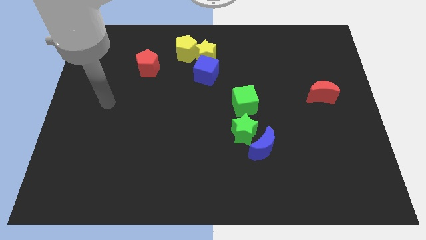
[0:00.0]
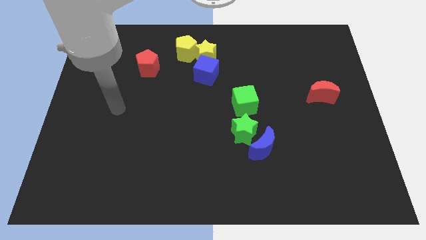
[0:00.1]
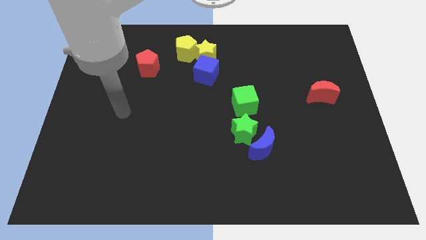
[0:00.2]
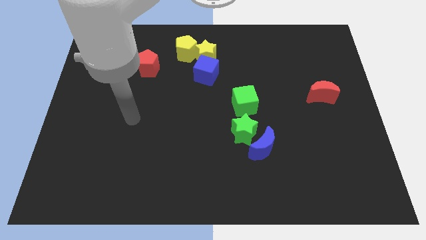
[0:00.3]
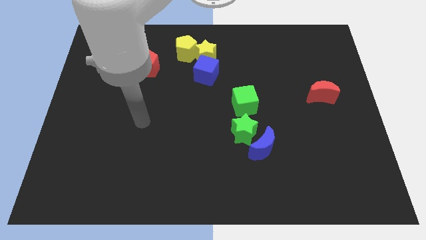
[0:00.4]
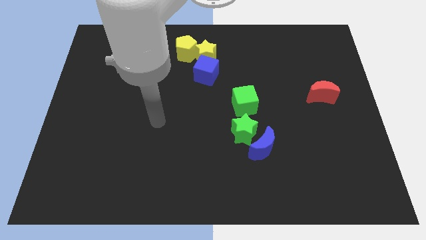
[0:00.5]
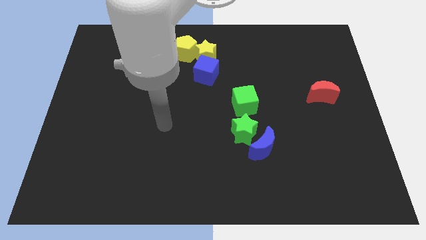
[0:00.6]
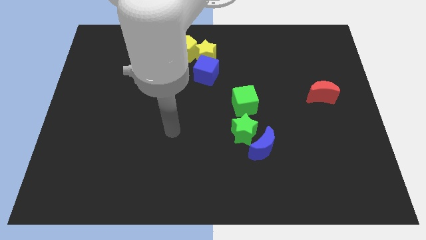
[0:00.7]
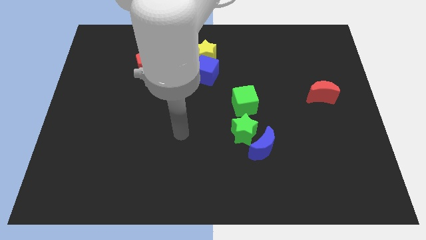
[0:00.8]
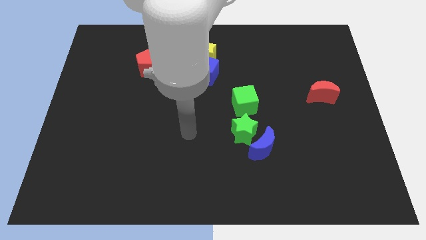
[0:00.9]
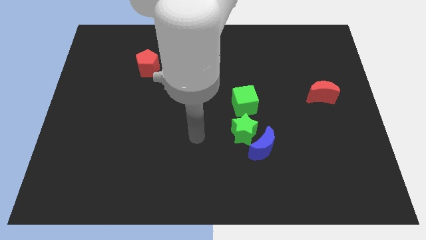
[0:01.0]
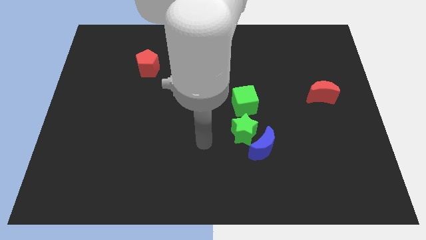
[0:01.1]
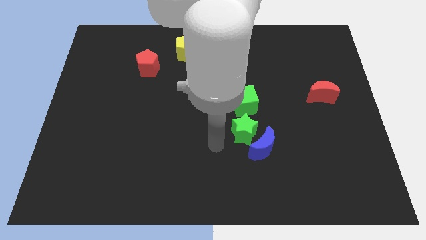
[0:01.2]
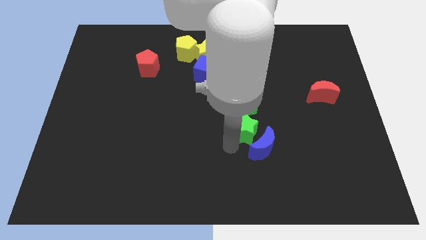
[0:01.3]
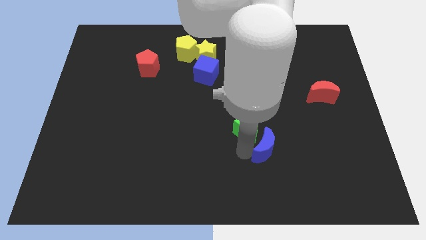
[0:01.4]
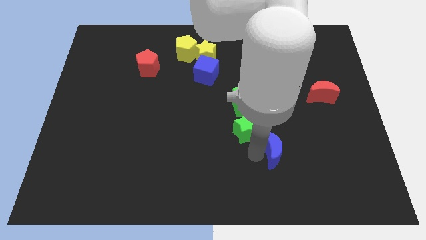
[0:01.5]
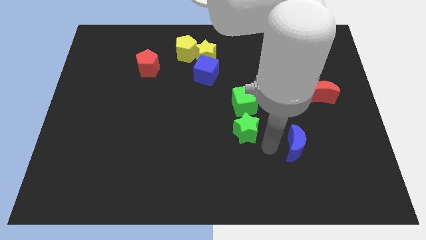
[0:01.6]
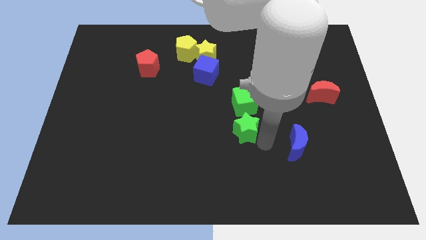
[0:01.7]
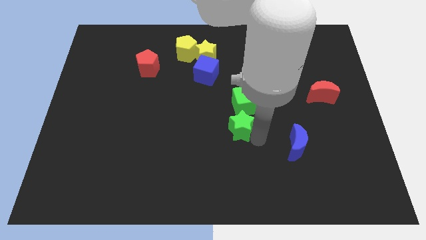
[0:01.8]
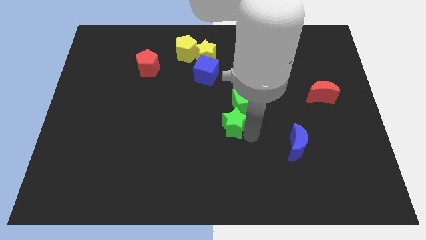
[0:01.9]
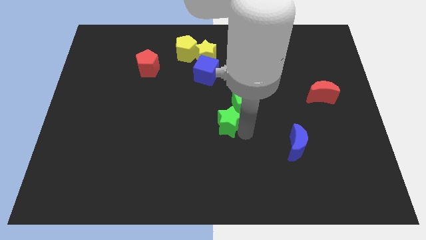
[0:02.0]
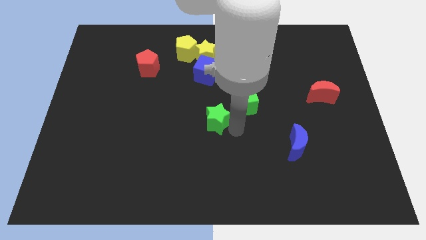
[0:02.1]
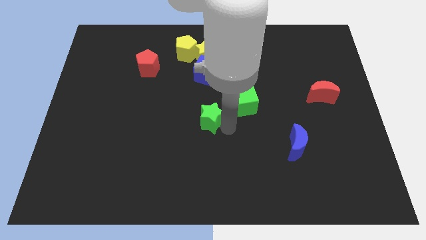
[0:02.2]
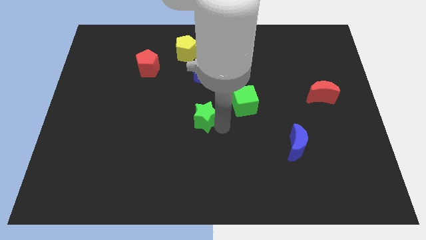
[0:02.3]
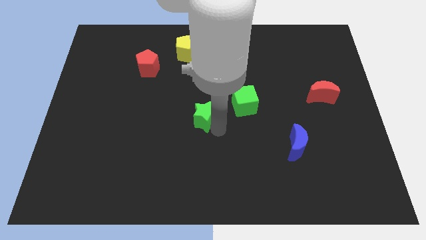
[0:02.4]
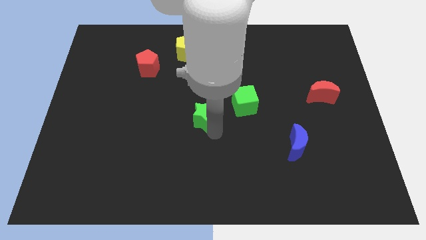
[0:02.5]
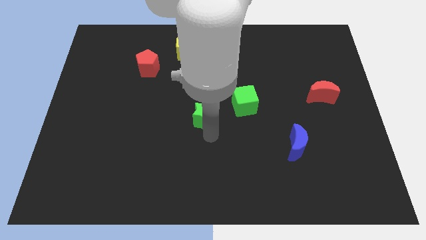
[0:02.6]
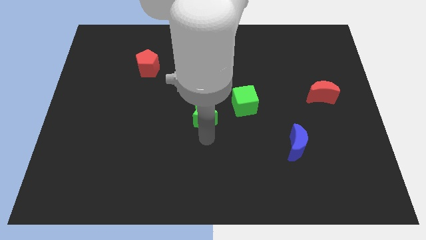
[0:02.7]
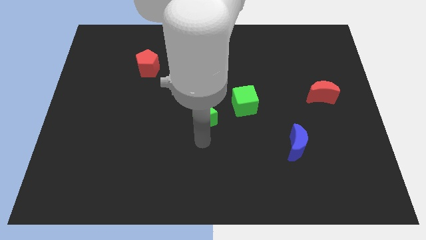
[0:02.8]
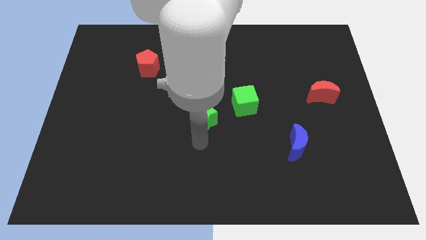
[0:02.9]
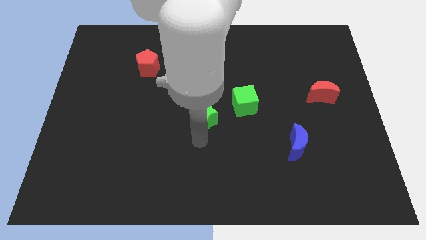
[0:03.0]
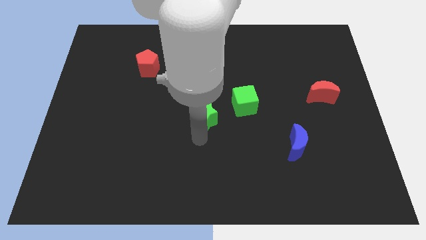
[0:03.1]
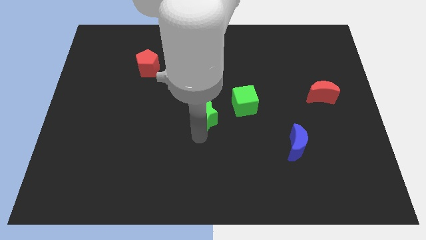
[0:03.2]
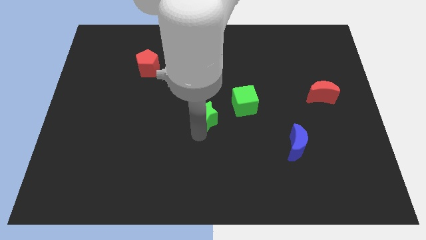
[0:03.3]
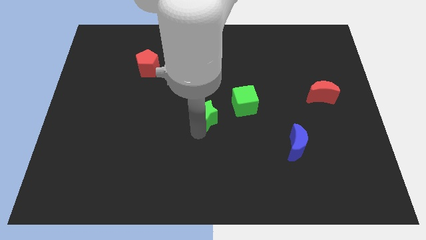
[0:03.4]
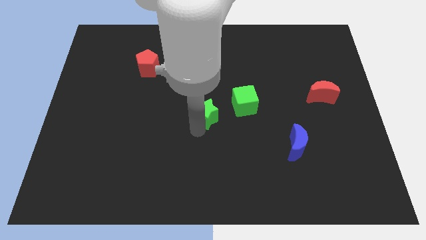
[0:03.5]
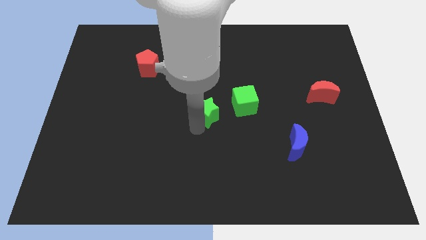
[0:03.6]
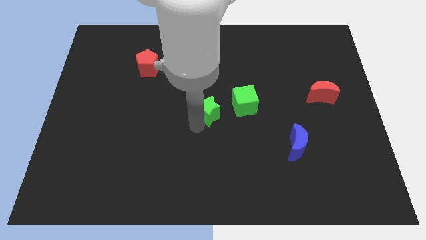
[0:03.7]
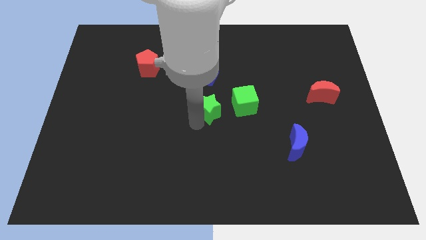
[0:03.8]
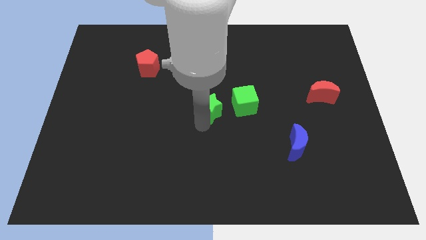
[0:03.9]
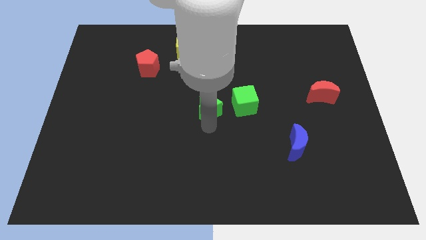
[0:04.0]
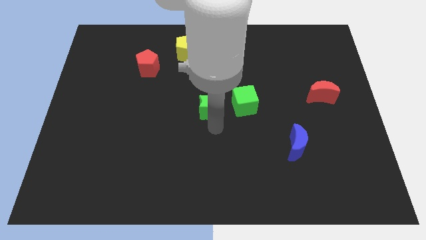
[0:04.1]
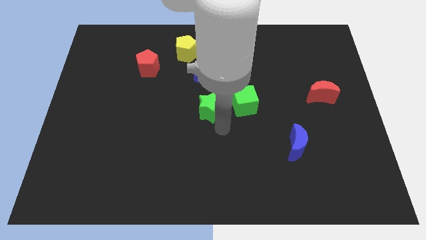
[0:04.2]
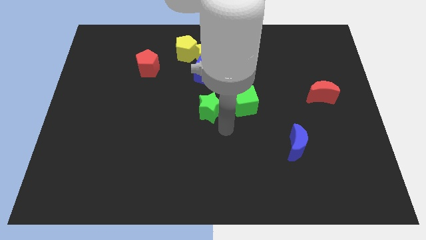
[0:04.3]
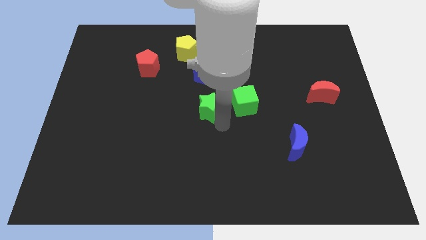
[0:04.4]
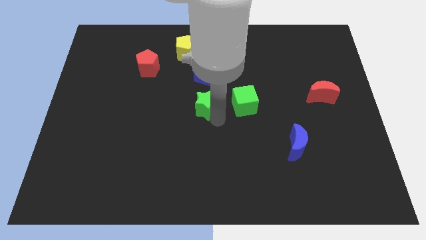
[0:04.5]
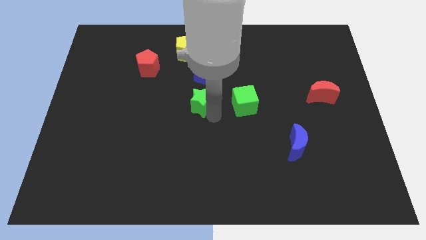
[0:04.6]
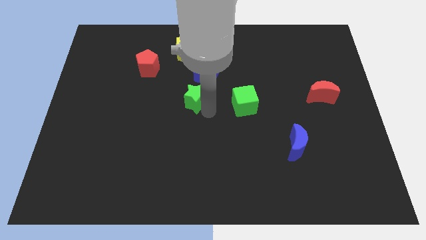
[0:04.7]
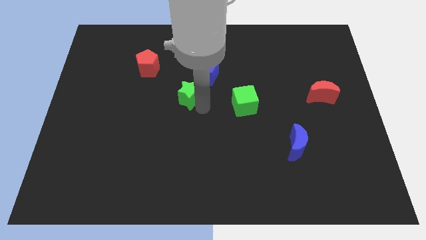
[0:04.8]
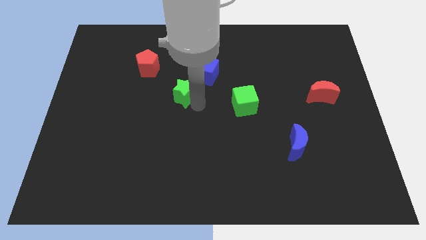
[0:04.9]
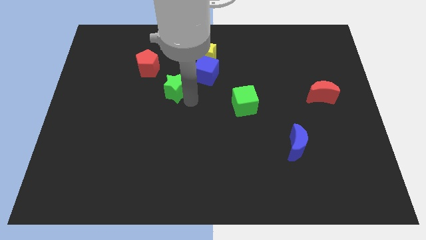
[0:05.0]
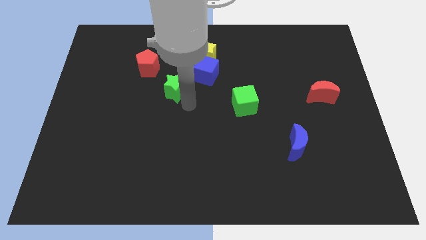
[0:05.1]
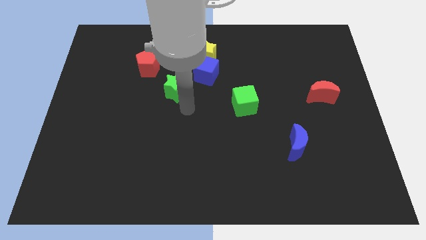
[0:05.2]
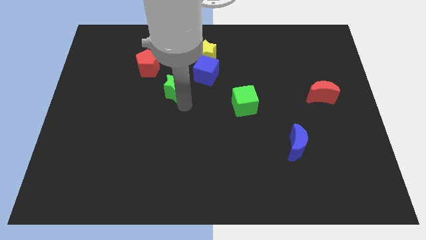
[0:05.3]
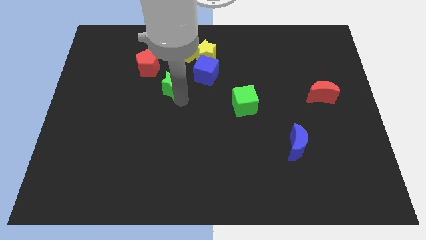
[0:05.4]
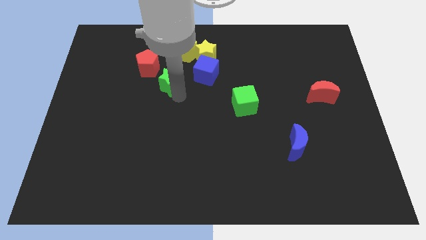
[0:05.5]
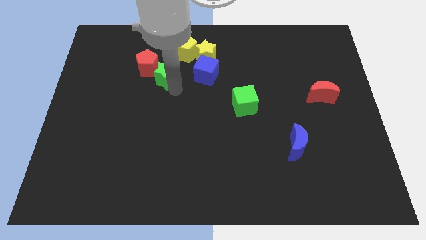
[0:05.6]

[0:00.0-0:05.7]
put the green star towards the red pentagon

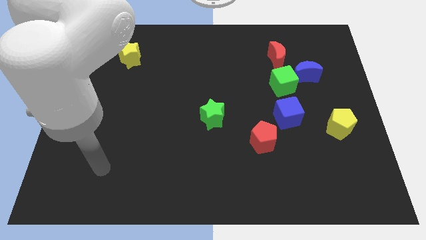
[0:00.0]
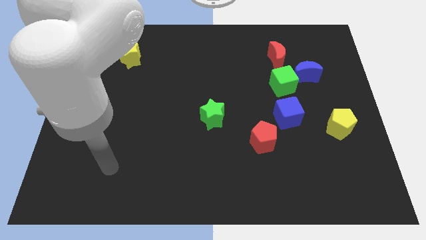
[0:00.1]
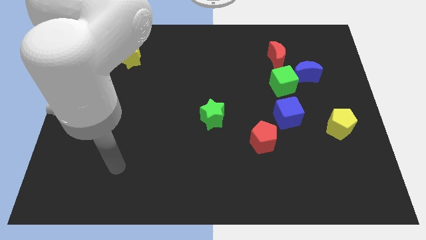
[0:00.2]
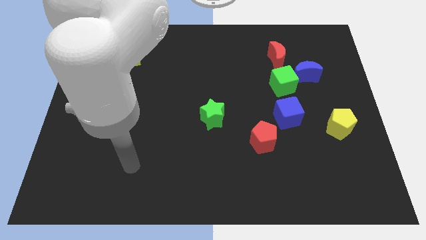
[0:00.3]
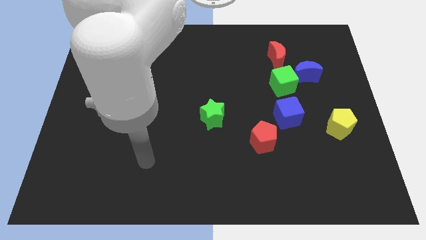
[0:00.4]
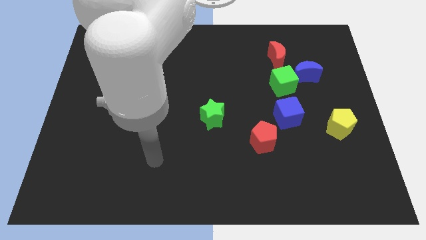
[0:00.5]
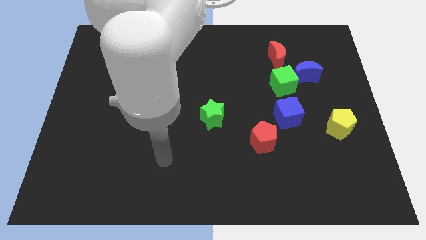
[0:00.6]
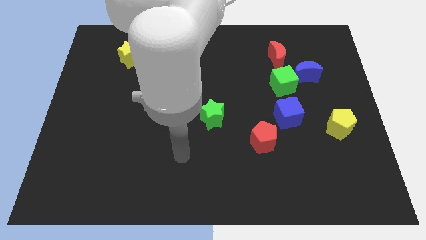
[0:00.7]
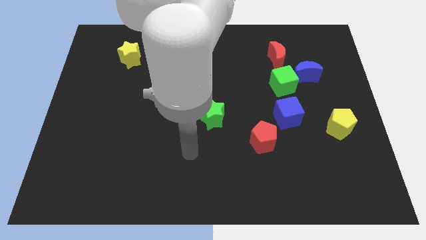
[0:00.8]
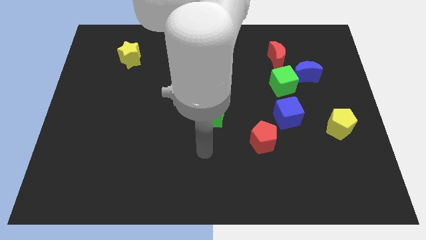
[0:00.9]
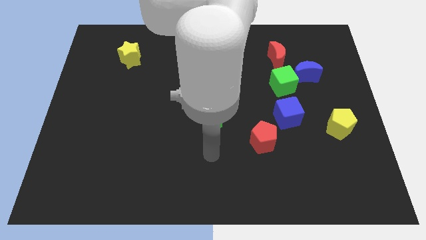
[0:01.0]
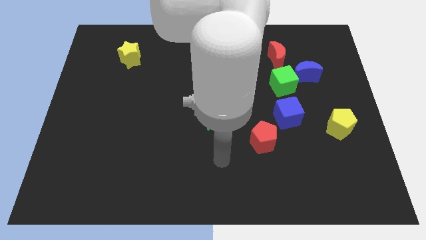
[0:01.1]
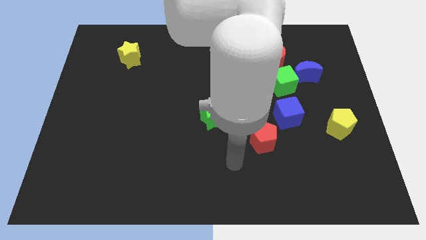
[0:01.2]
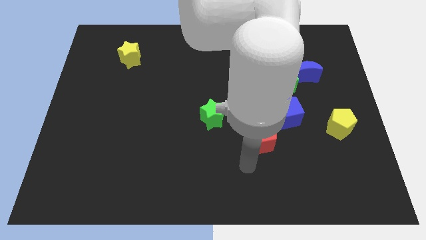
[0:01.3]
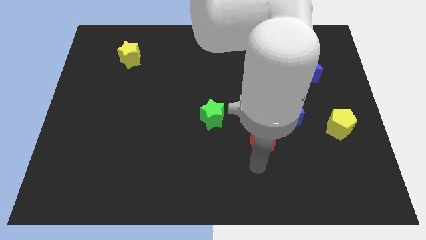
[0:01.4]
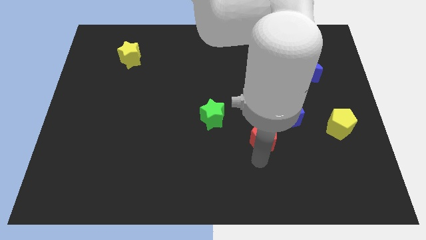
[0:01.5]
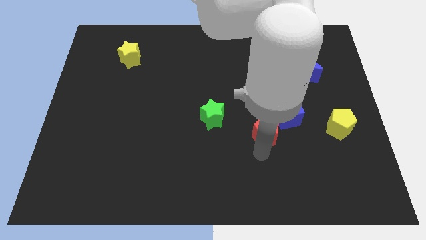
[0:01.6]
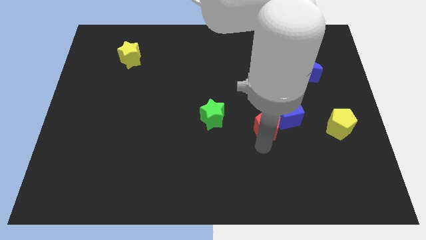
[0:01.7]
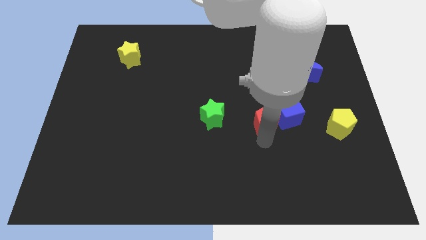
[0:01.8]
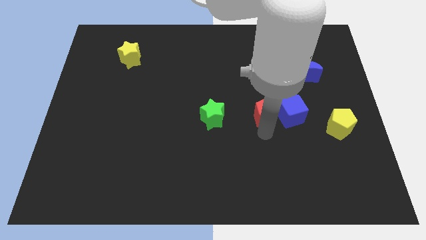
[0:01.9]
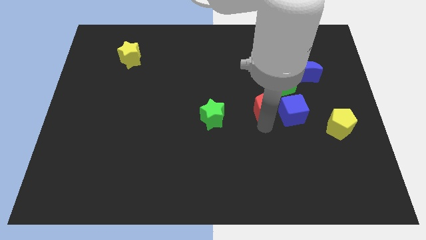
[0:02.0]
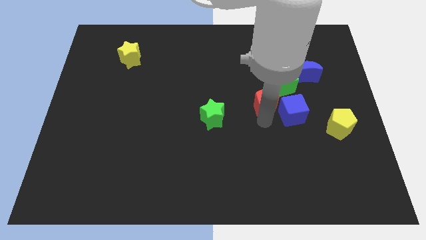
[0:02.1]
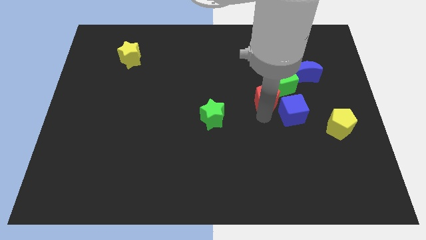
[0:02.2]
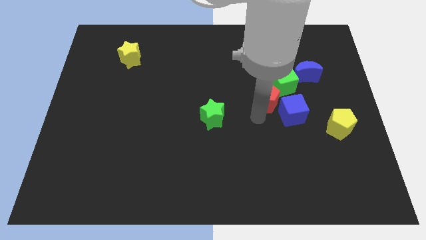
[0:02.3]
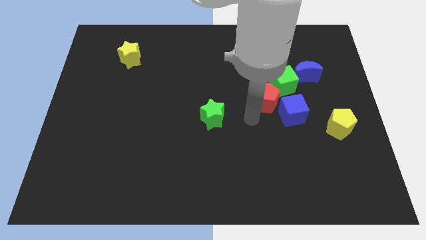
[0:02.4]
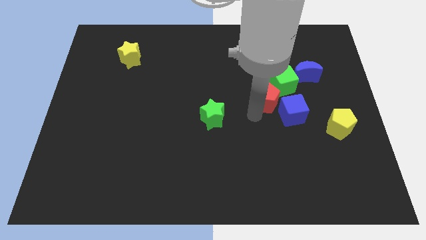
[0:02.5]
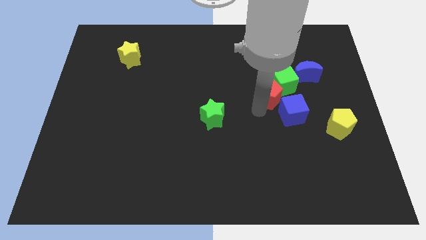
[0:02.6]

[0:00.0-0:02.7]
move the red pentagon next to the green cube
